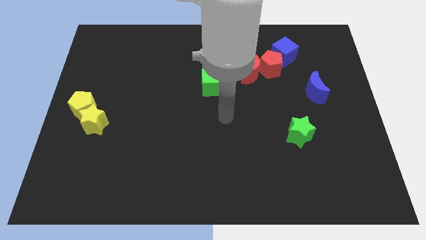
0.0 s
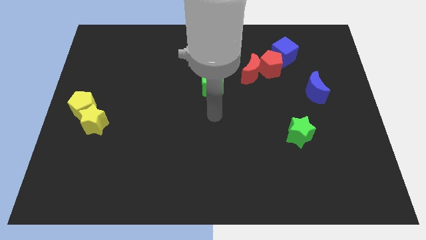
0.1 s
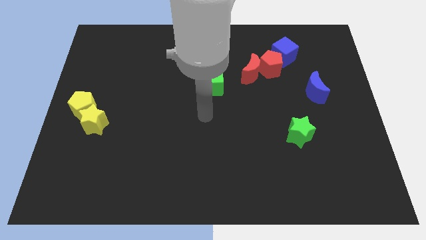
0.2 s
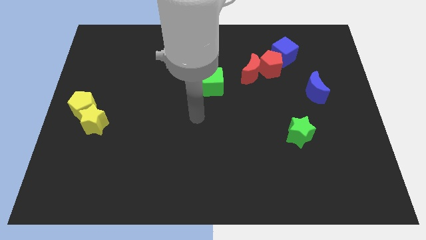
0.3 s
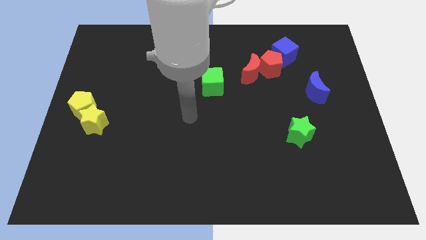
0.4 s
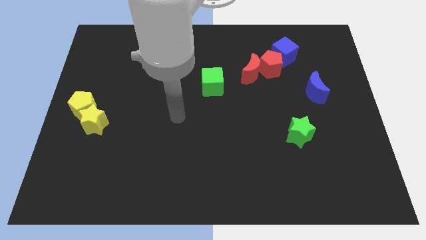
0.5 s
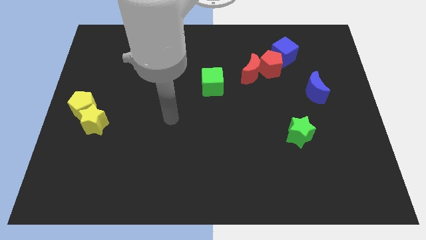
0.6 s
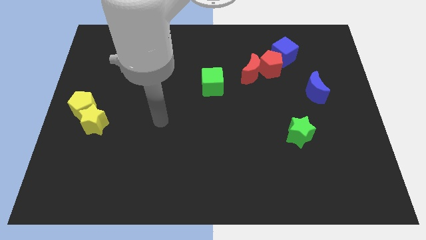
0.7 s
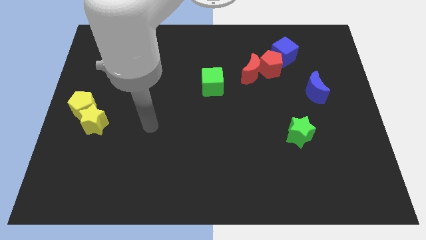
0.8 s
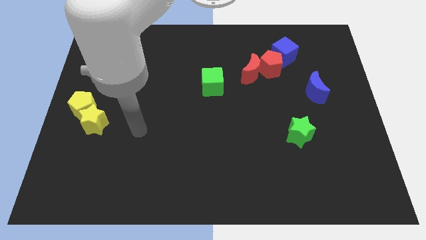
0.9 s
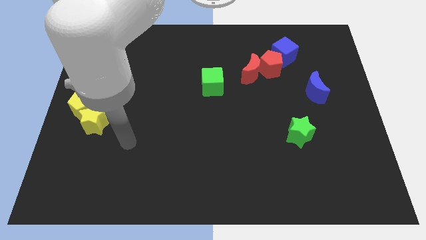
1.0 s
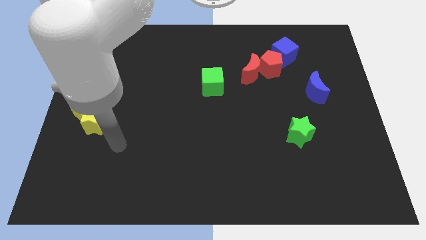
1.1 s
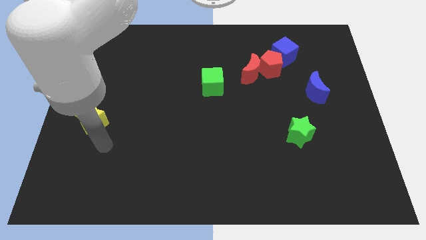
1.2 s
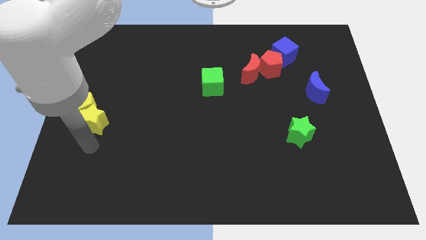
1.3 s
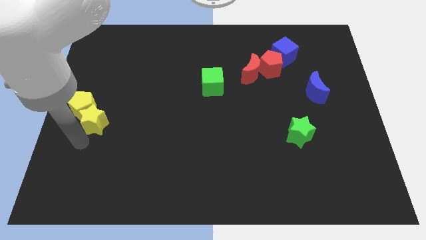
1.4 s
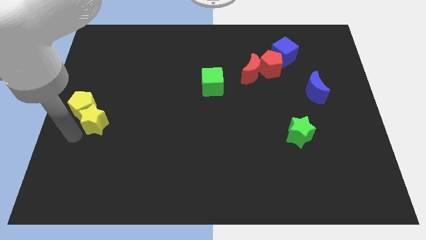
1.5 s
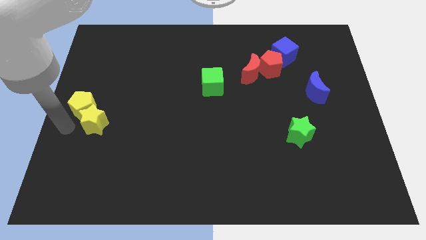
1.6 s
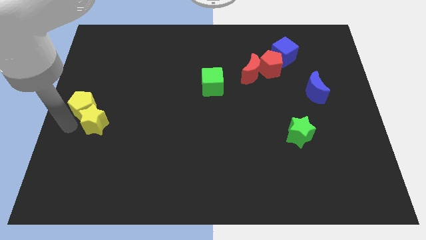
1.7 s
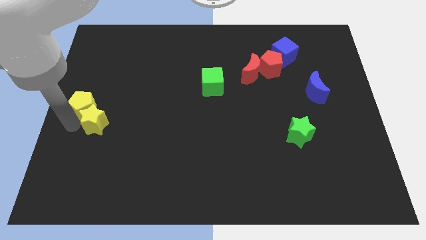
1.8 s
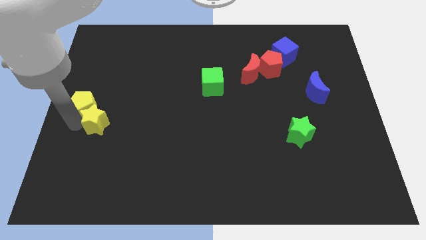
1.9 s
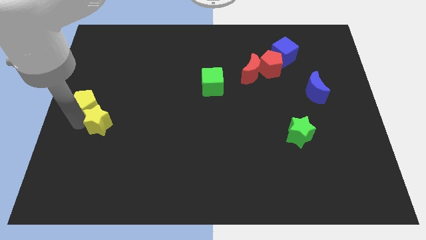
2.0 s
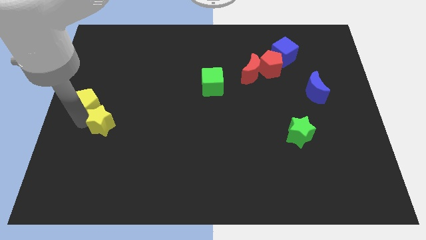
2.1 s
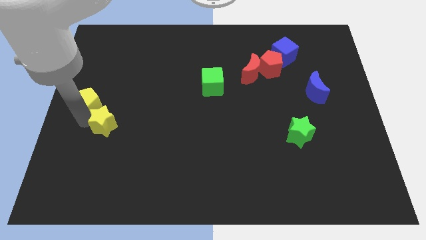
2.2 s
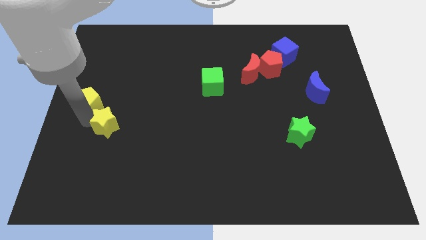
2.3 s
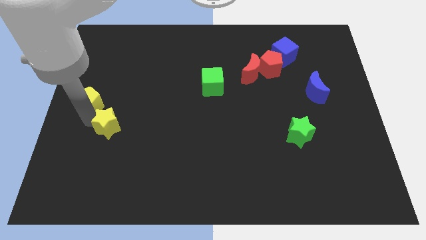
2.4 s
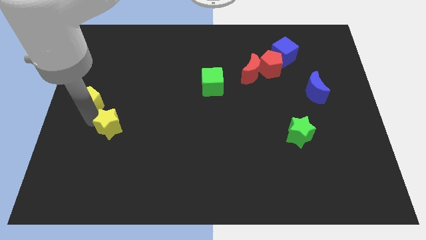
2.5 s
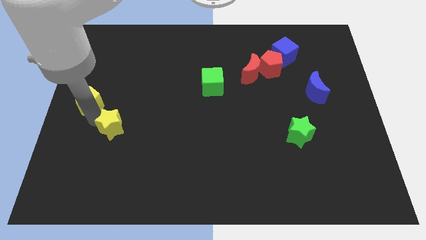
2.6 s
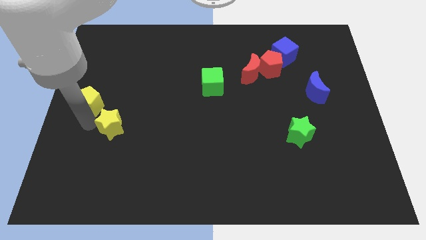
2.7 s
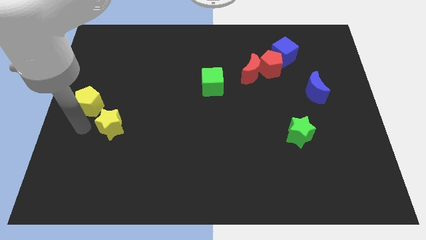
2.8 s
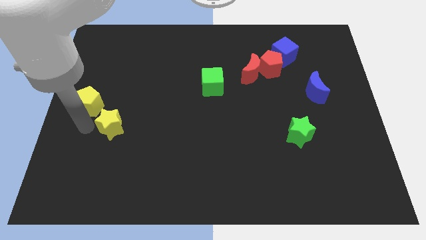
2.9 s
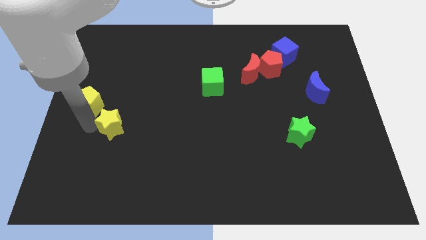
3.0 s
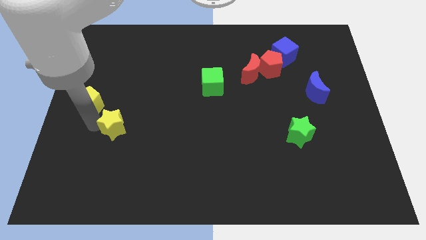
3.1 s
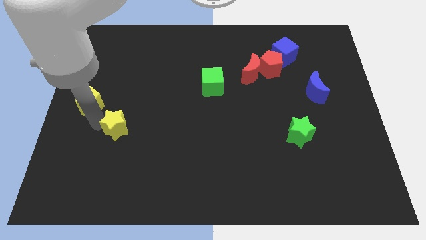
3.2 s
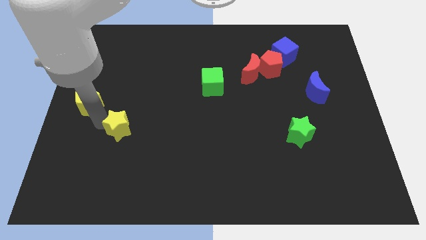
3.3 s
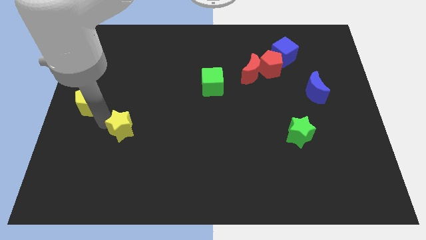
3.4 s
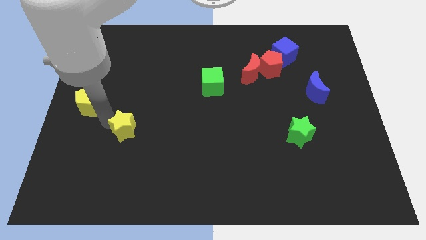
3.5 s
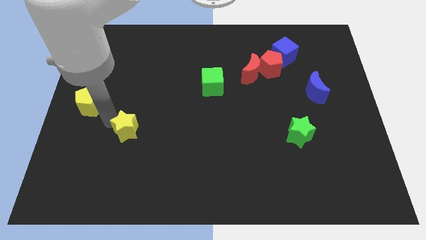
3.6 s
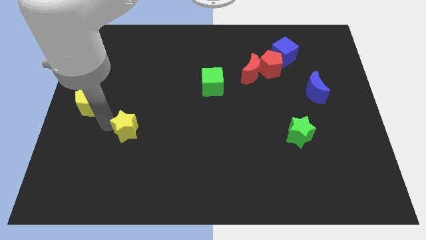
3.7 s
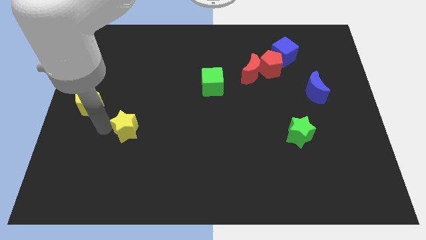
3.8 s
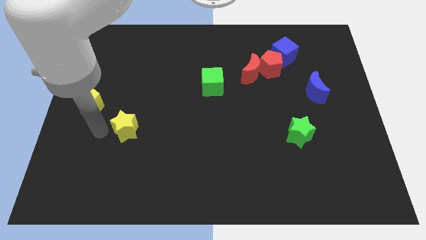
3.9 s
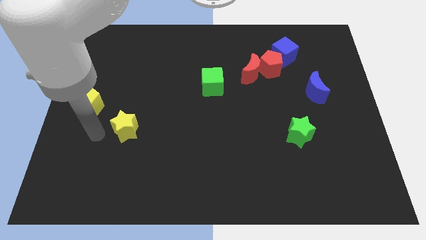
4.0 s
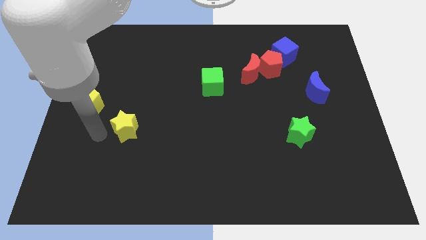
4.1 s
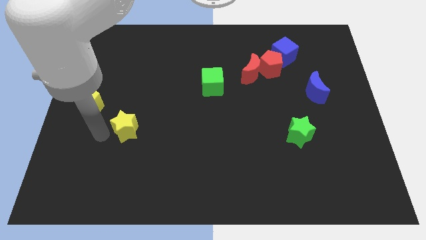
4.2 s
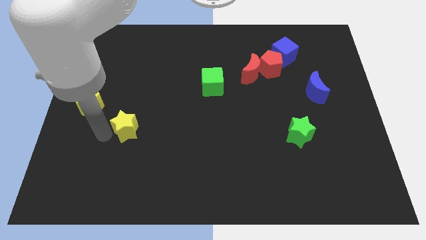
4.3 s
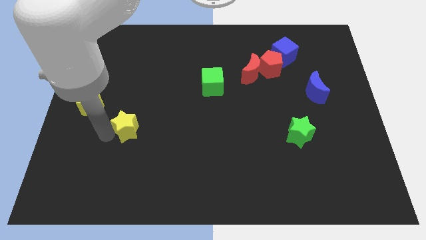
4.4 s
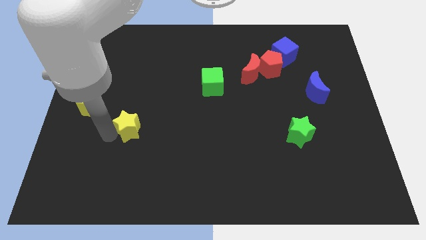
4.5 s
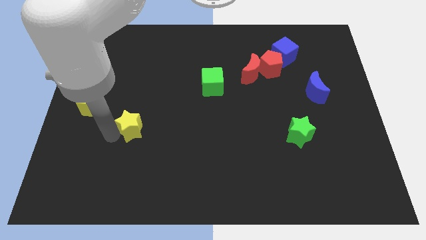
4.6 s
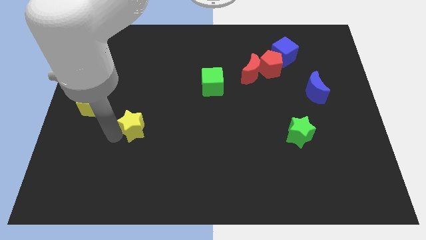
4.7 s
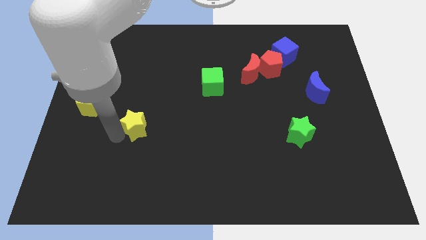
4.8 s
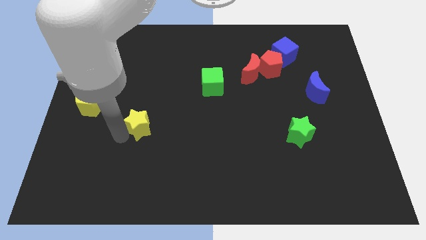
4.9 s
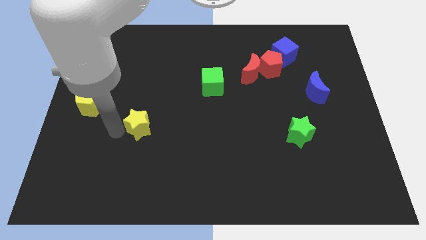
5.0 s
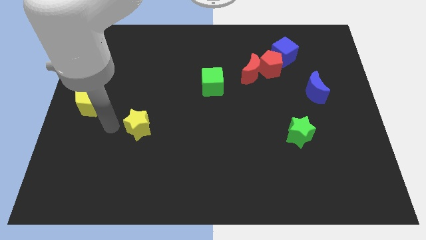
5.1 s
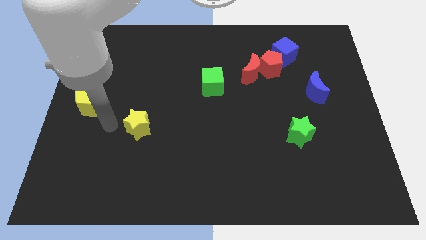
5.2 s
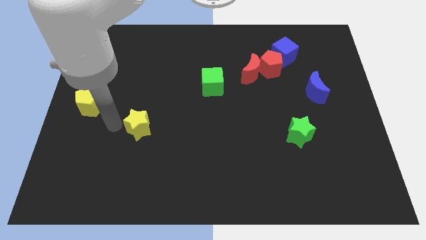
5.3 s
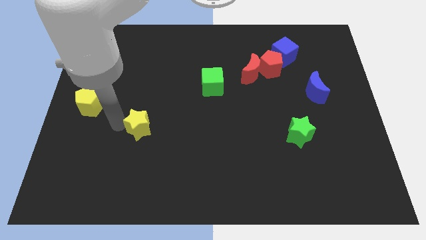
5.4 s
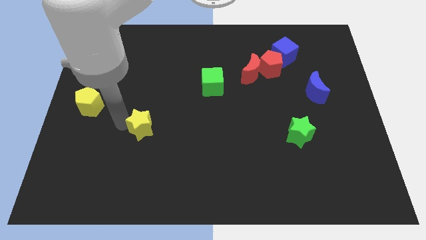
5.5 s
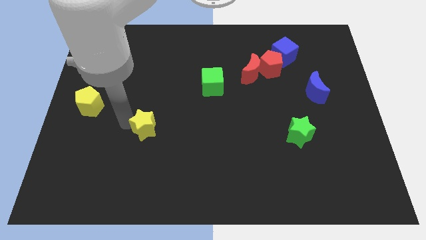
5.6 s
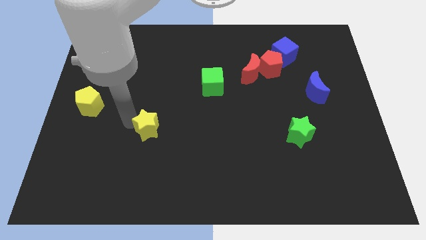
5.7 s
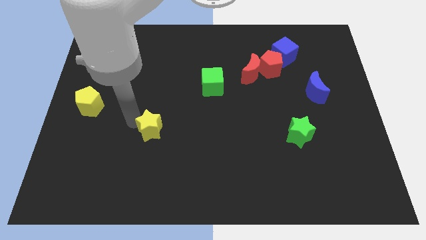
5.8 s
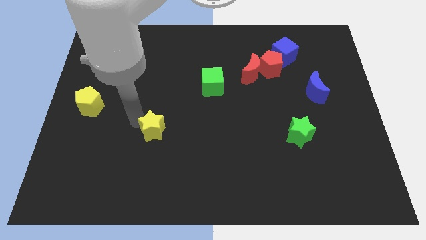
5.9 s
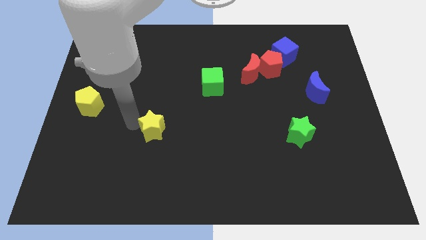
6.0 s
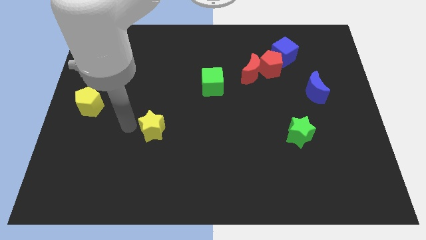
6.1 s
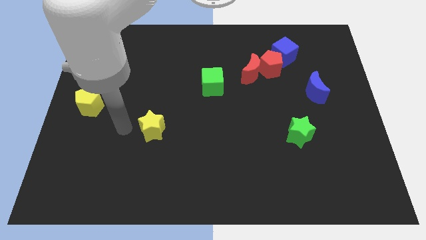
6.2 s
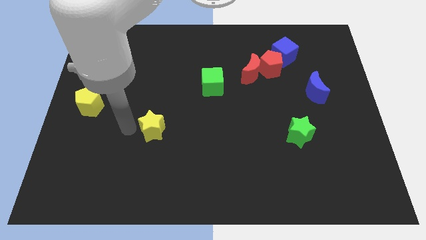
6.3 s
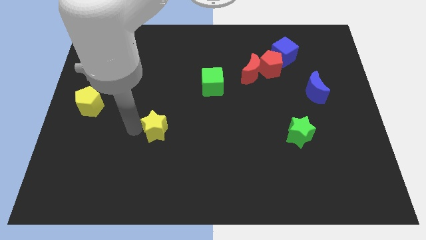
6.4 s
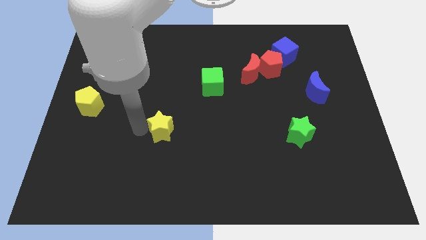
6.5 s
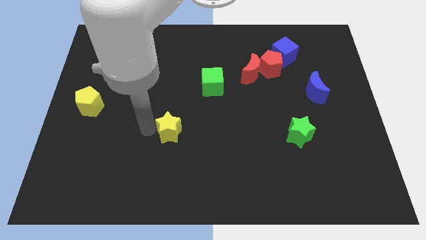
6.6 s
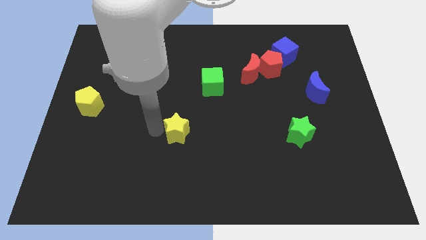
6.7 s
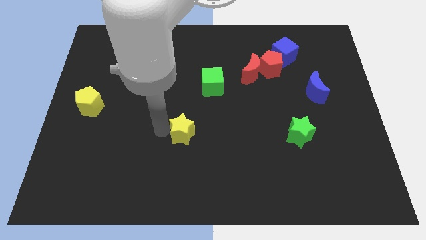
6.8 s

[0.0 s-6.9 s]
move the yellow star to the right

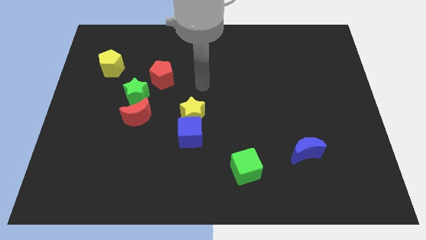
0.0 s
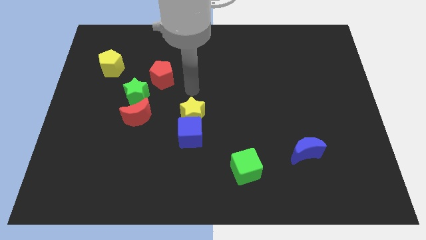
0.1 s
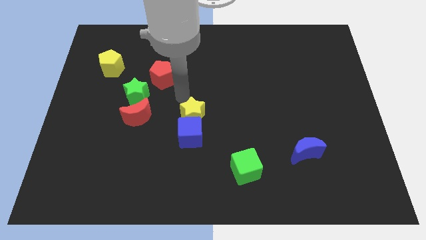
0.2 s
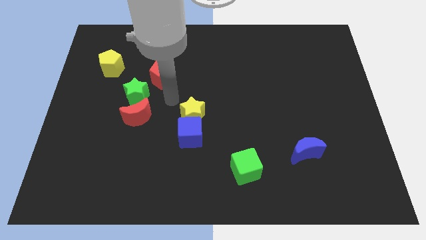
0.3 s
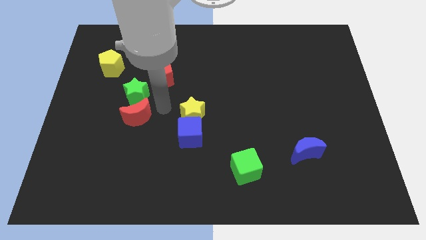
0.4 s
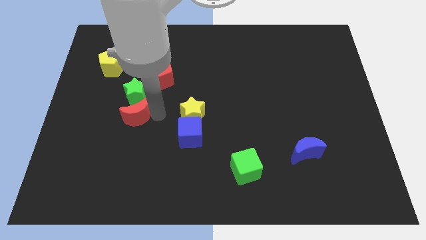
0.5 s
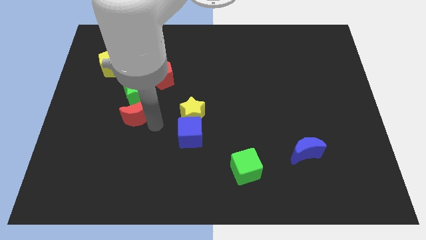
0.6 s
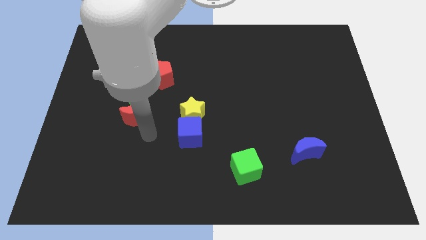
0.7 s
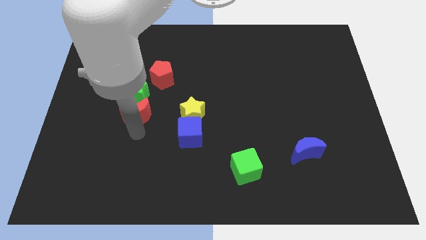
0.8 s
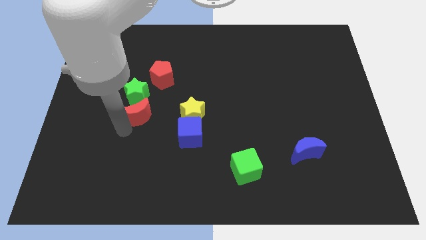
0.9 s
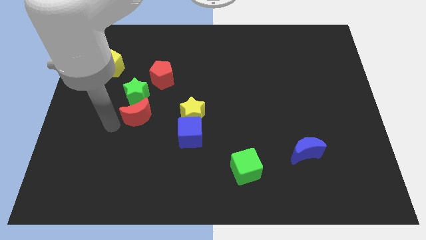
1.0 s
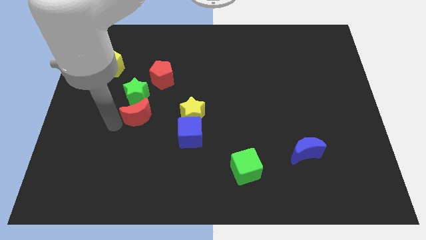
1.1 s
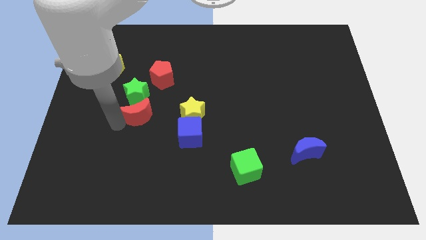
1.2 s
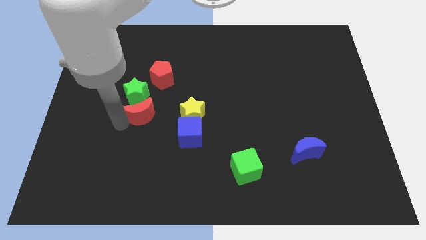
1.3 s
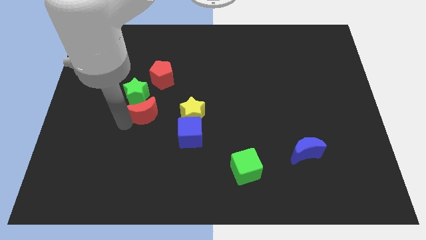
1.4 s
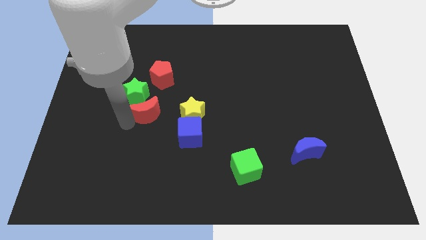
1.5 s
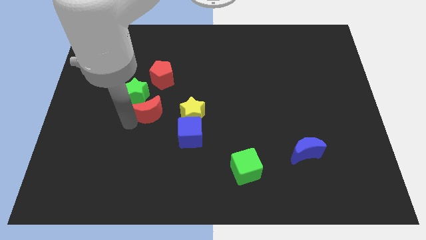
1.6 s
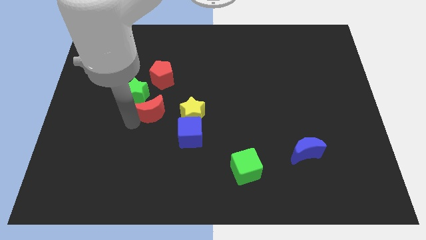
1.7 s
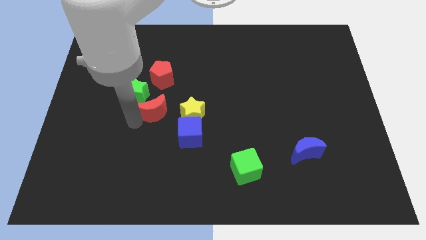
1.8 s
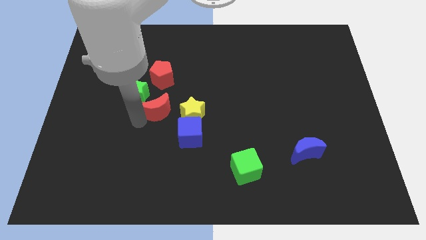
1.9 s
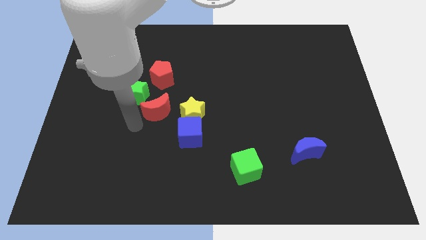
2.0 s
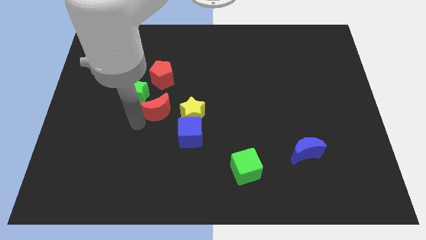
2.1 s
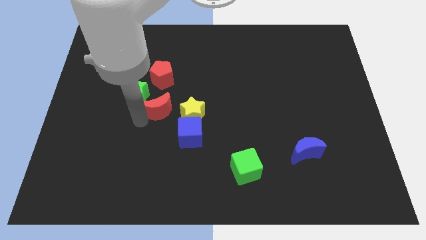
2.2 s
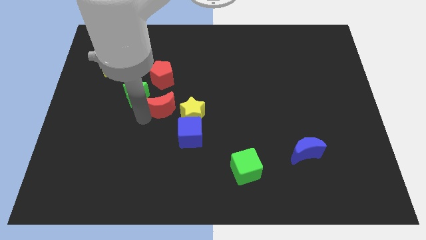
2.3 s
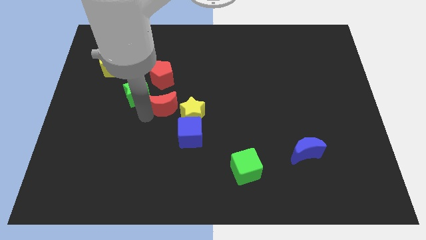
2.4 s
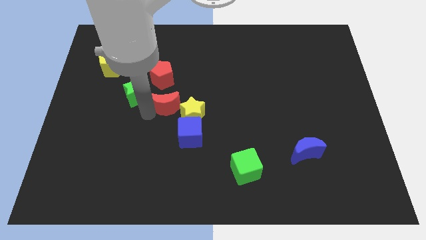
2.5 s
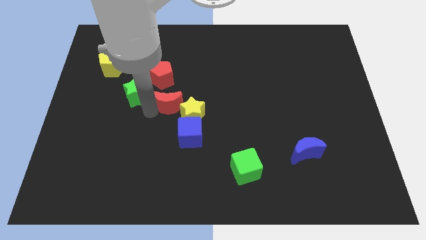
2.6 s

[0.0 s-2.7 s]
slightly push the red moon diagonally upwards and right
